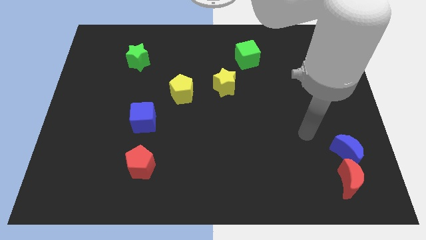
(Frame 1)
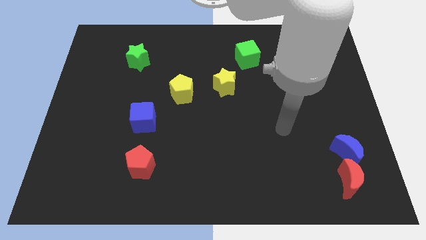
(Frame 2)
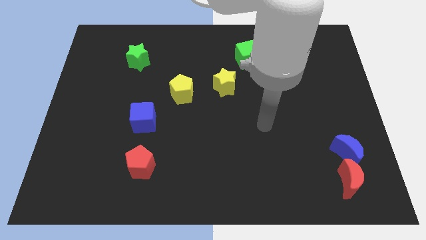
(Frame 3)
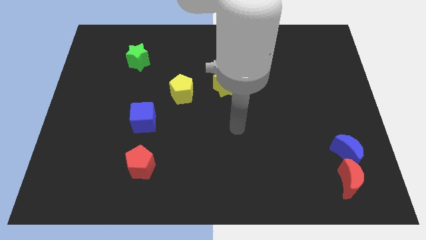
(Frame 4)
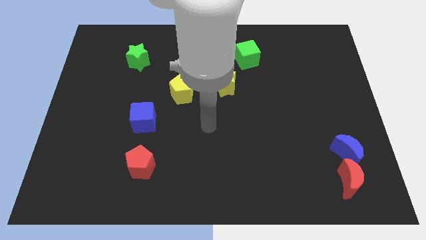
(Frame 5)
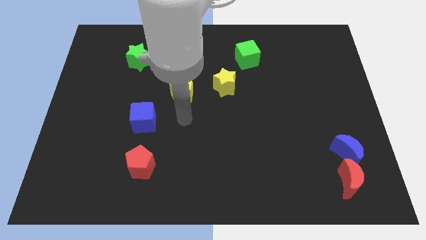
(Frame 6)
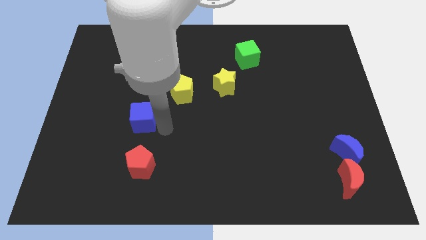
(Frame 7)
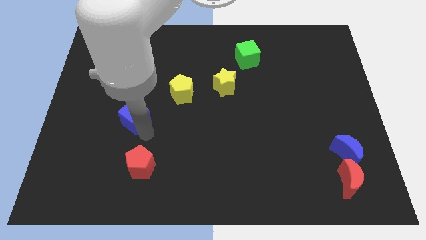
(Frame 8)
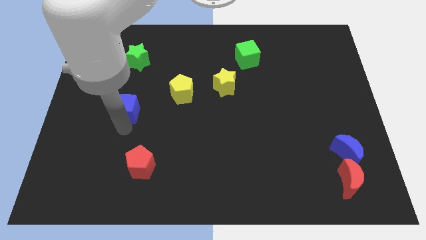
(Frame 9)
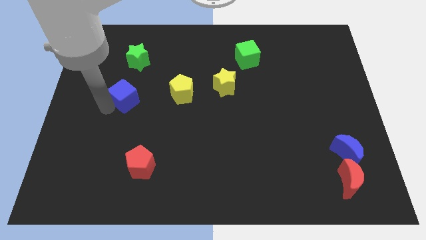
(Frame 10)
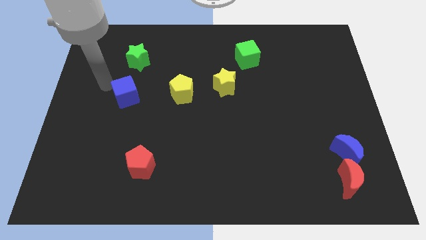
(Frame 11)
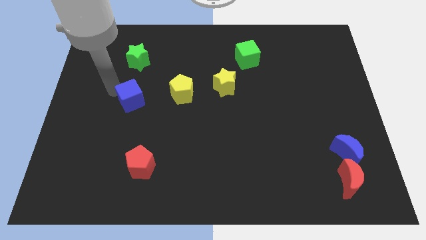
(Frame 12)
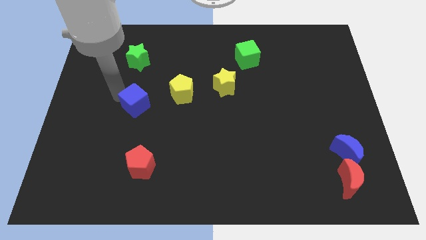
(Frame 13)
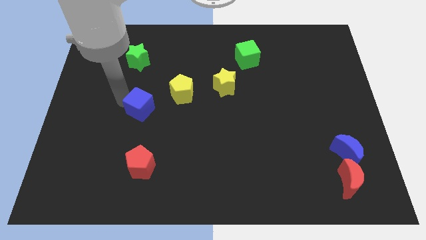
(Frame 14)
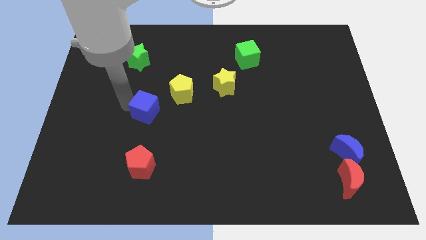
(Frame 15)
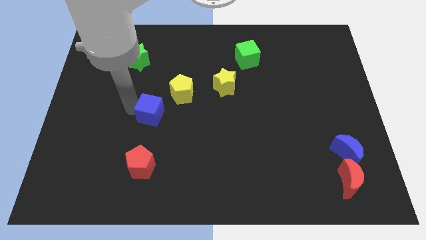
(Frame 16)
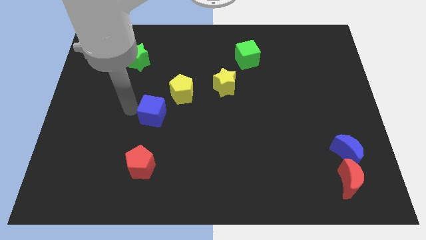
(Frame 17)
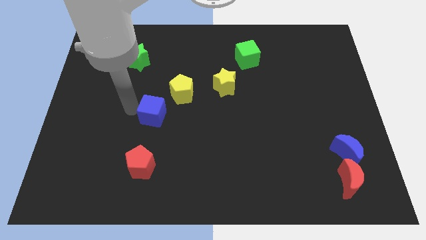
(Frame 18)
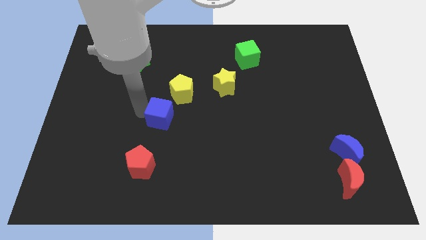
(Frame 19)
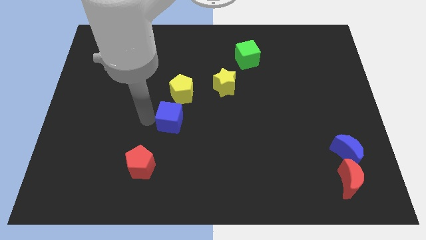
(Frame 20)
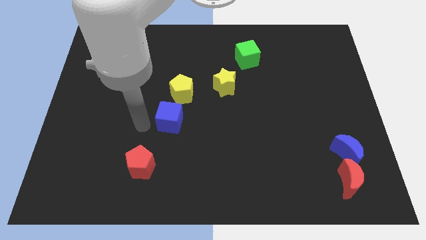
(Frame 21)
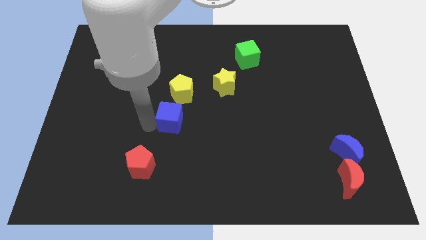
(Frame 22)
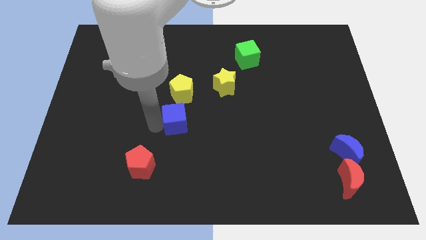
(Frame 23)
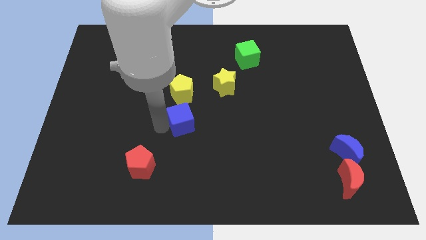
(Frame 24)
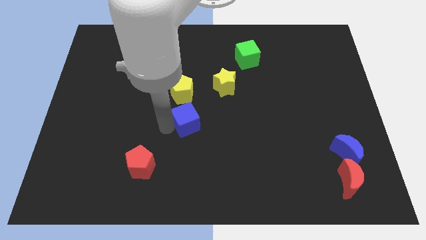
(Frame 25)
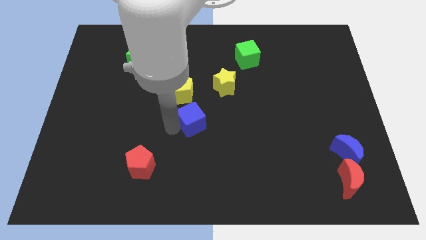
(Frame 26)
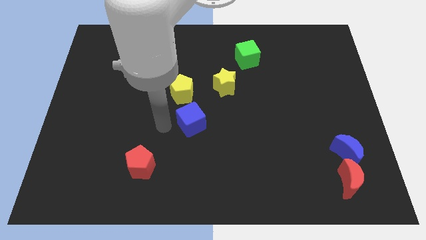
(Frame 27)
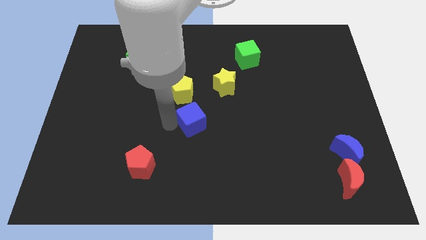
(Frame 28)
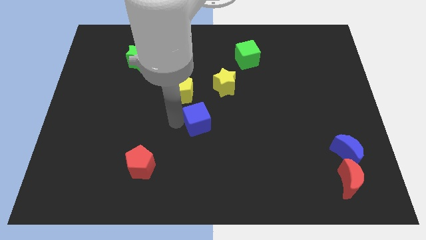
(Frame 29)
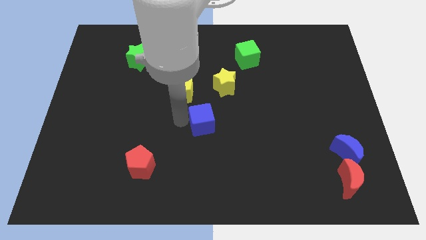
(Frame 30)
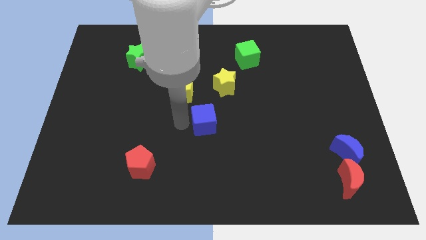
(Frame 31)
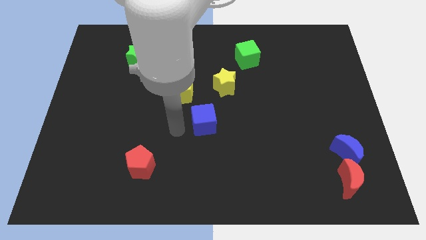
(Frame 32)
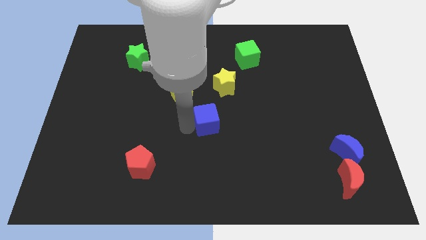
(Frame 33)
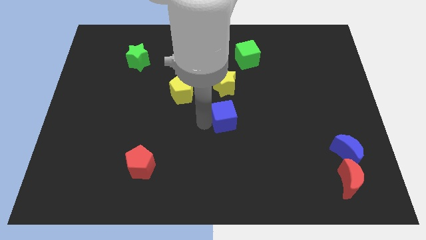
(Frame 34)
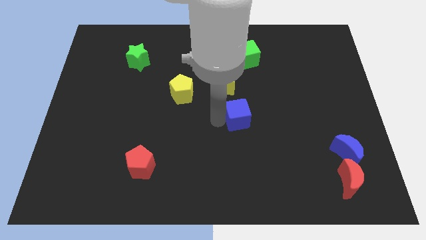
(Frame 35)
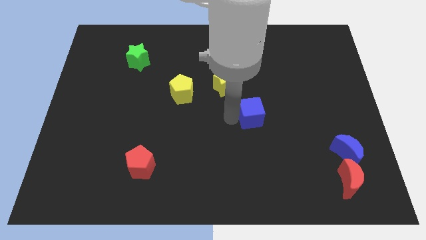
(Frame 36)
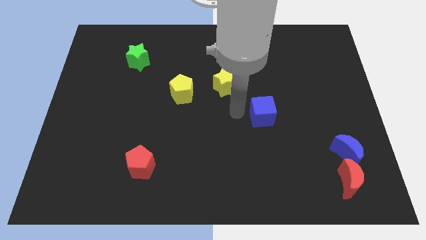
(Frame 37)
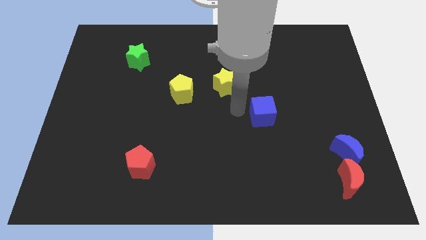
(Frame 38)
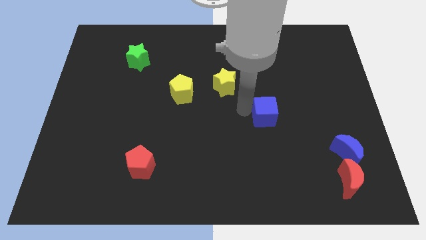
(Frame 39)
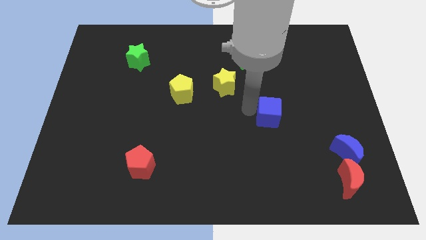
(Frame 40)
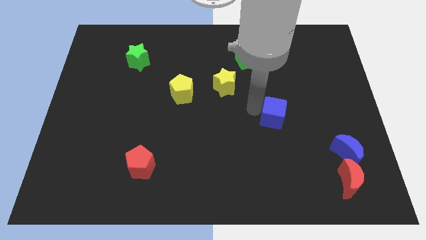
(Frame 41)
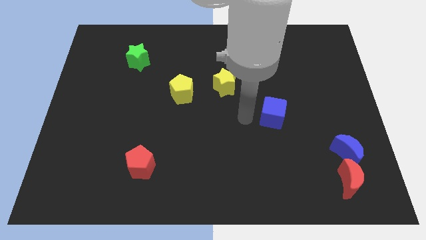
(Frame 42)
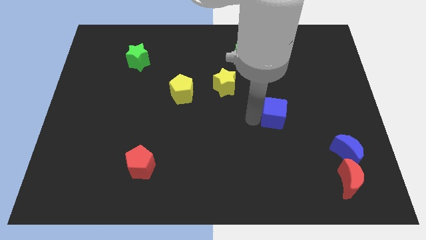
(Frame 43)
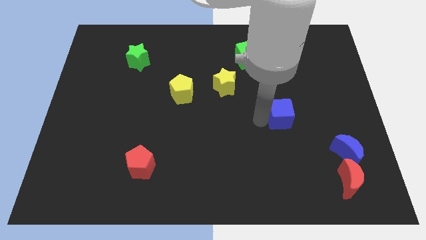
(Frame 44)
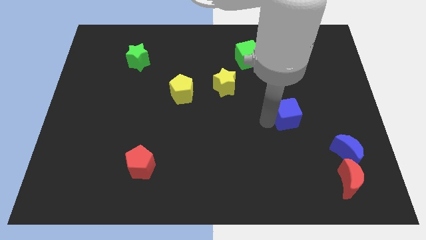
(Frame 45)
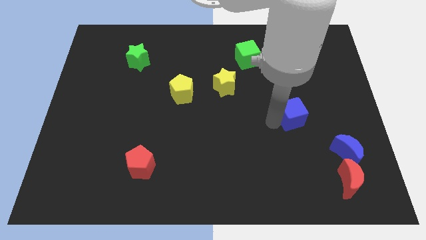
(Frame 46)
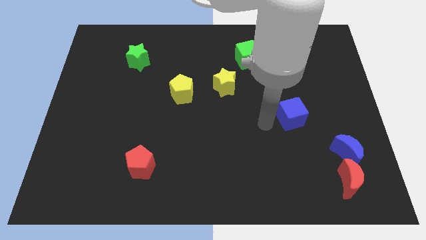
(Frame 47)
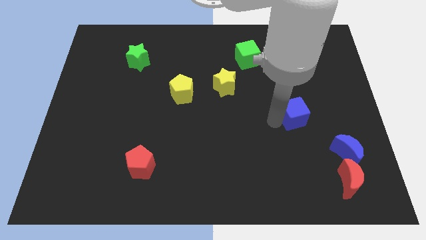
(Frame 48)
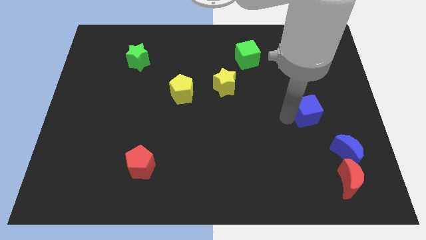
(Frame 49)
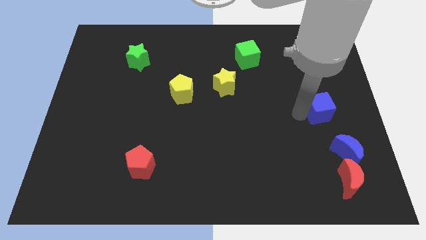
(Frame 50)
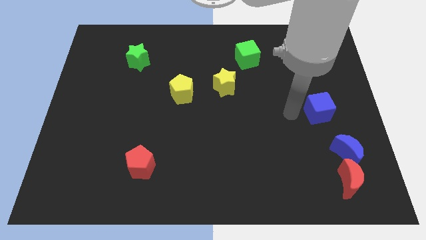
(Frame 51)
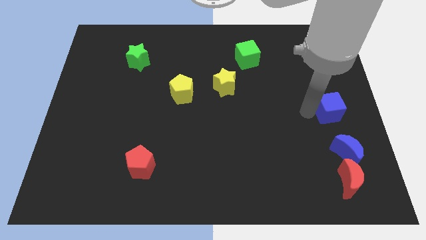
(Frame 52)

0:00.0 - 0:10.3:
put the blue cube to the right side of the board

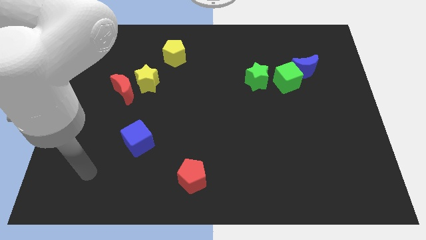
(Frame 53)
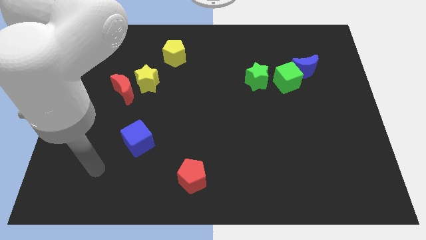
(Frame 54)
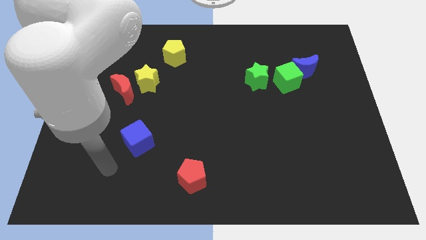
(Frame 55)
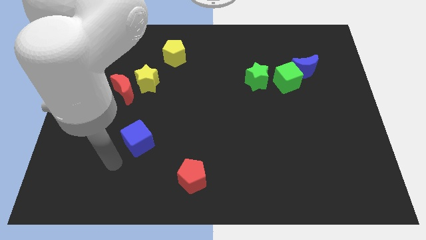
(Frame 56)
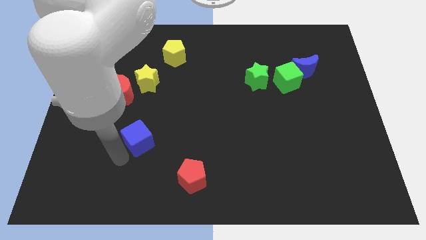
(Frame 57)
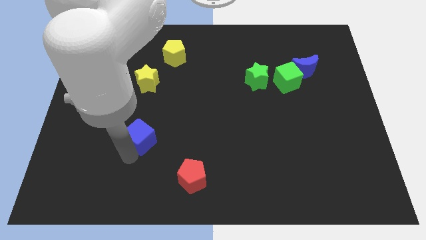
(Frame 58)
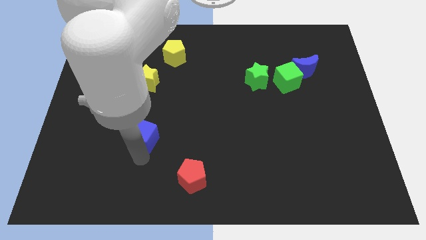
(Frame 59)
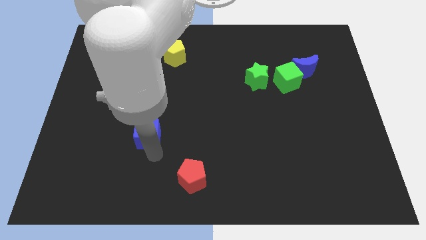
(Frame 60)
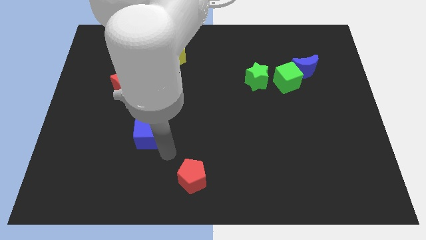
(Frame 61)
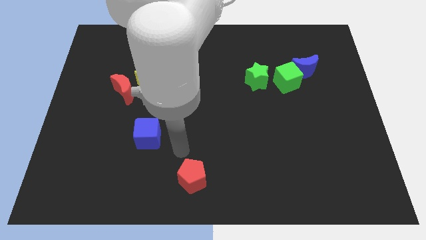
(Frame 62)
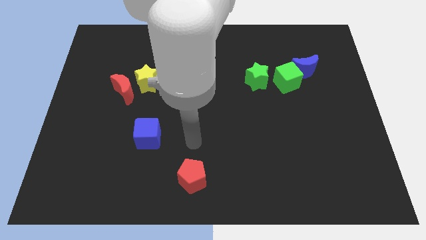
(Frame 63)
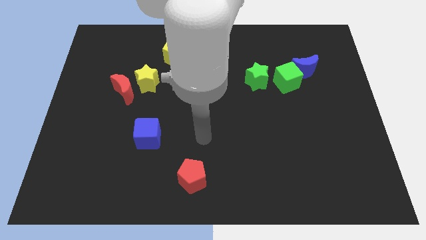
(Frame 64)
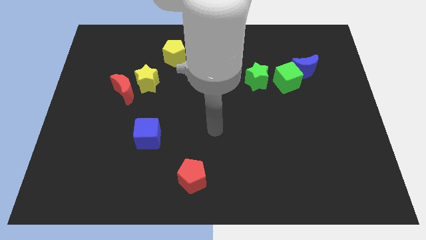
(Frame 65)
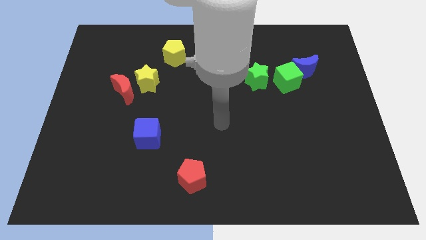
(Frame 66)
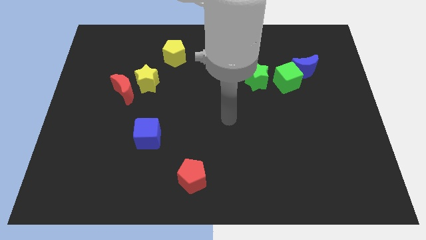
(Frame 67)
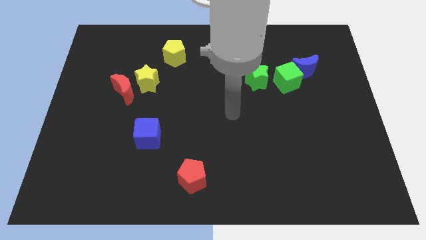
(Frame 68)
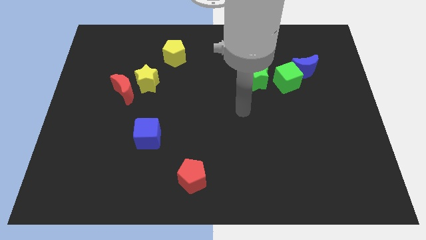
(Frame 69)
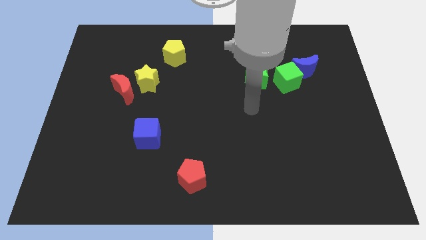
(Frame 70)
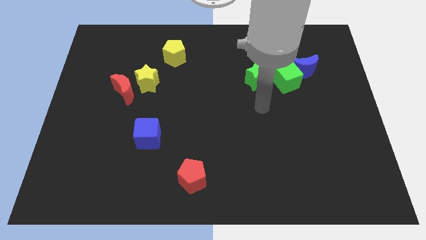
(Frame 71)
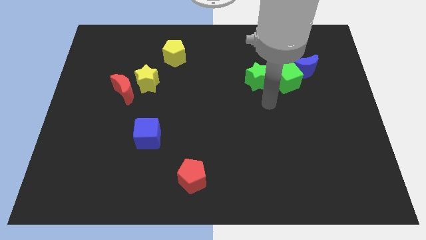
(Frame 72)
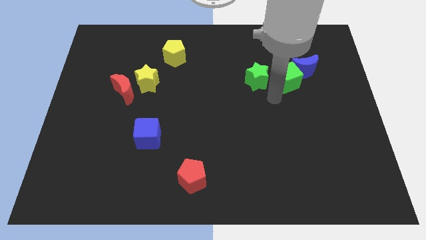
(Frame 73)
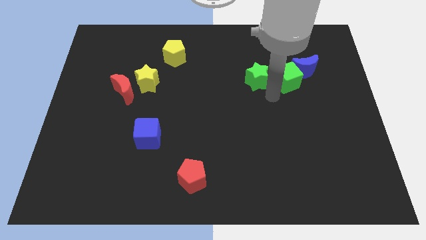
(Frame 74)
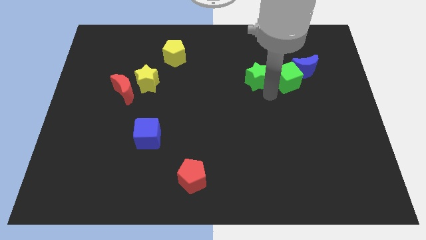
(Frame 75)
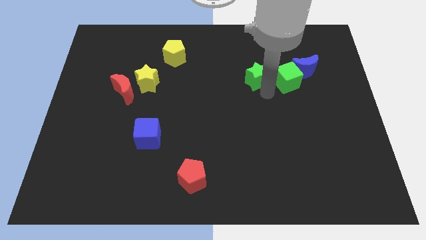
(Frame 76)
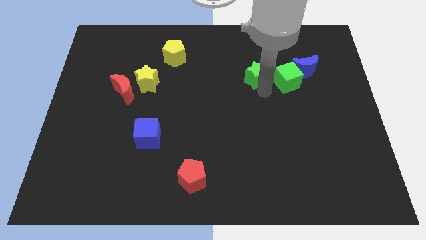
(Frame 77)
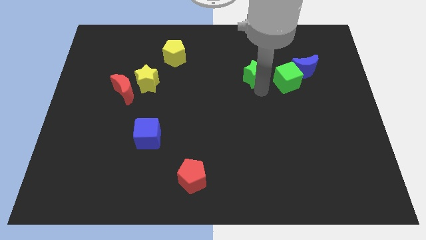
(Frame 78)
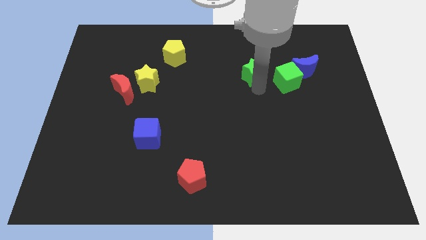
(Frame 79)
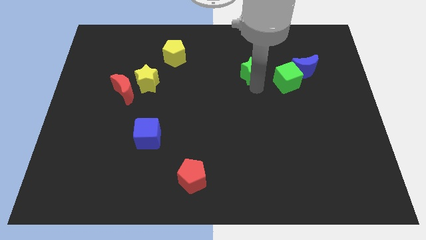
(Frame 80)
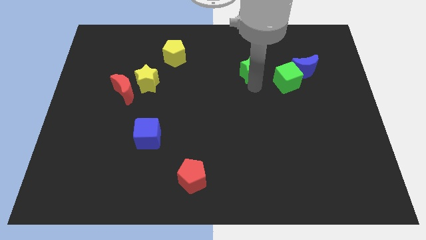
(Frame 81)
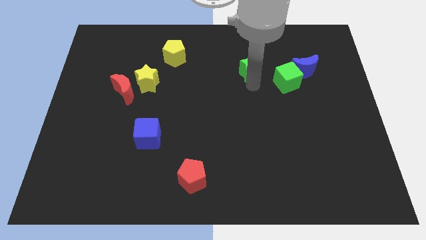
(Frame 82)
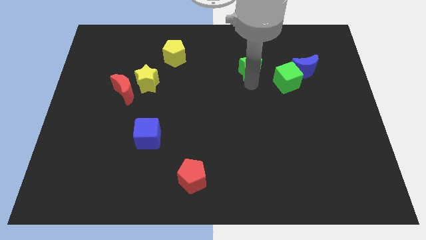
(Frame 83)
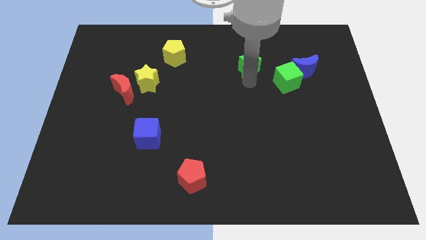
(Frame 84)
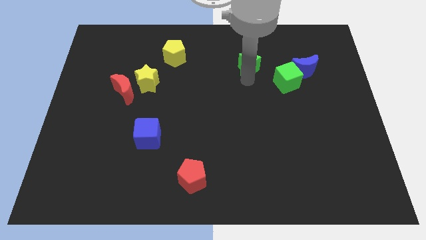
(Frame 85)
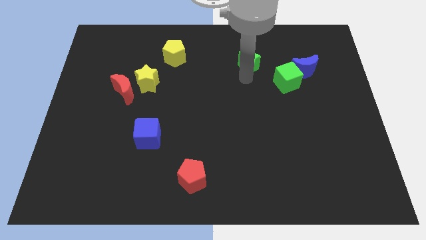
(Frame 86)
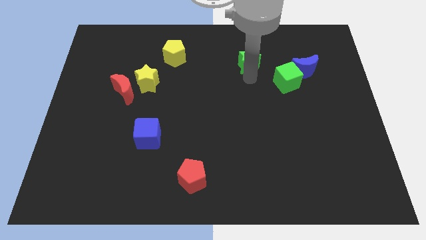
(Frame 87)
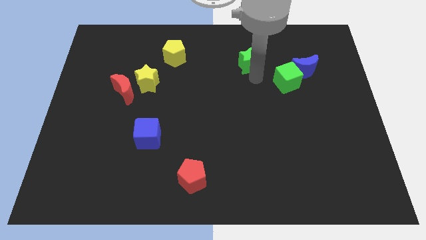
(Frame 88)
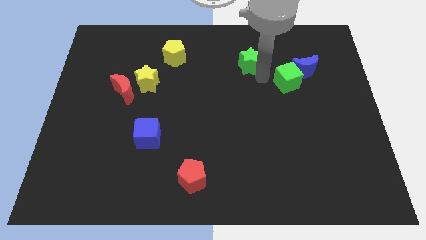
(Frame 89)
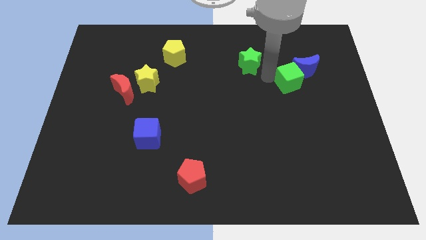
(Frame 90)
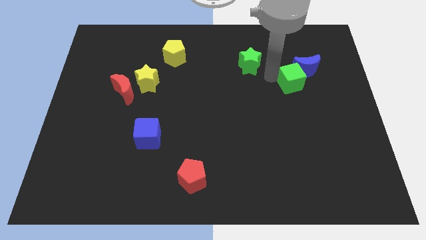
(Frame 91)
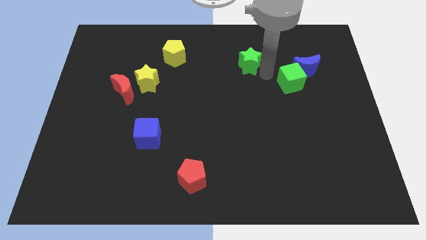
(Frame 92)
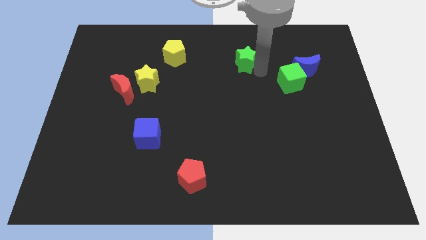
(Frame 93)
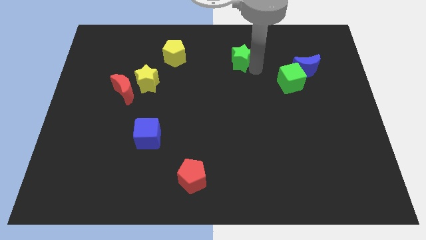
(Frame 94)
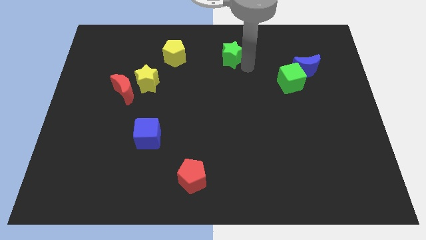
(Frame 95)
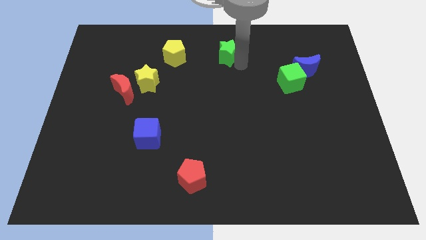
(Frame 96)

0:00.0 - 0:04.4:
slide the green star to the top side
